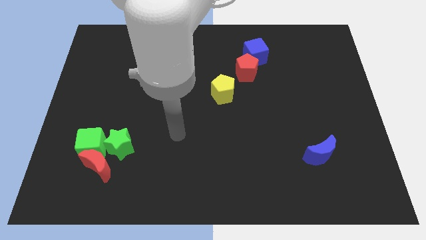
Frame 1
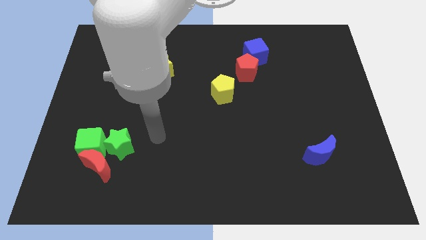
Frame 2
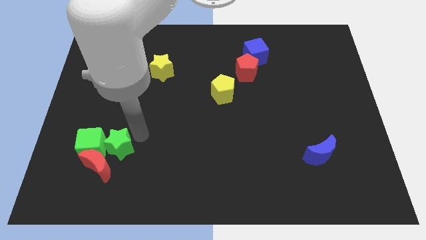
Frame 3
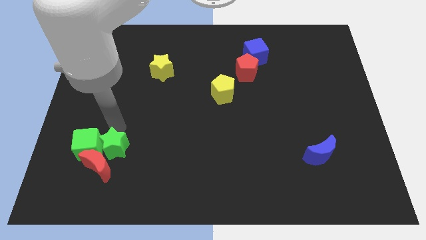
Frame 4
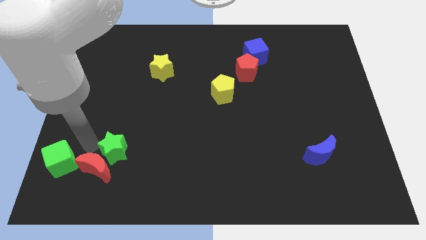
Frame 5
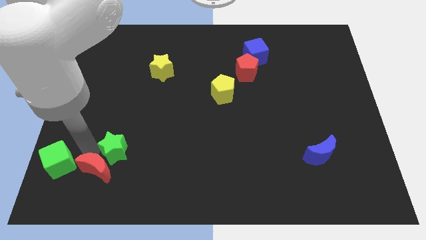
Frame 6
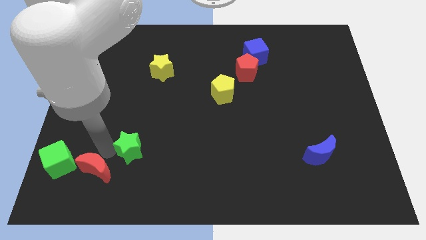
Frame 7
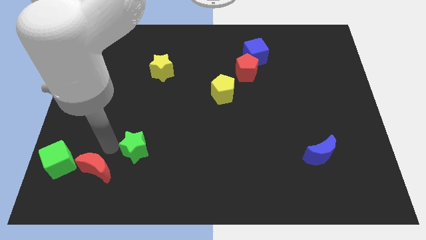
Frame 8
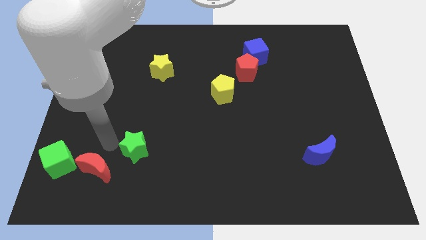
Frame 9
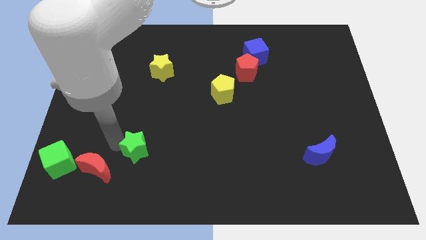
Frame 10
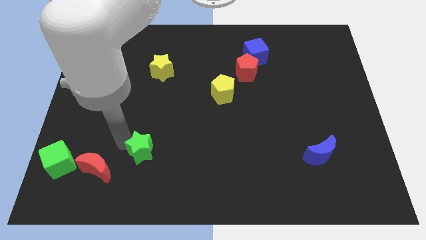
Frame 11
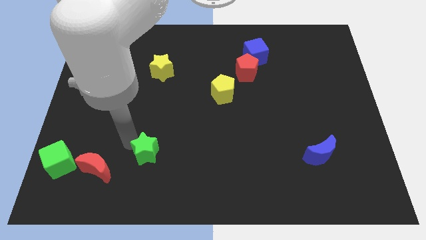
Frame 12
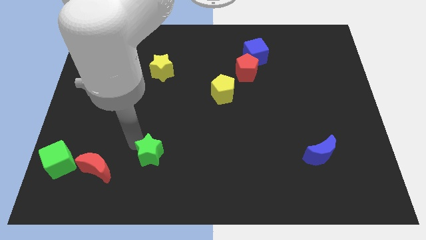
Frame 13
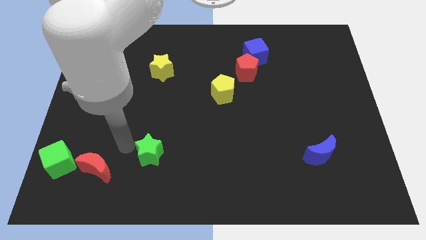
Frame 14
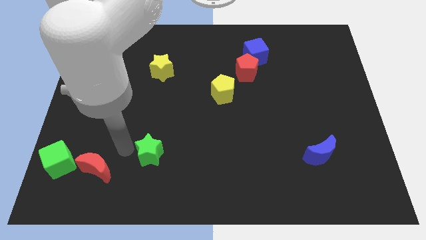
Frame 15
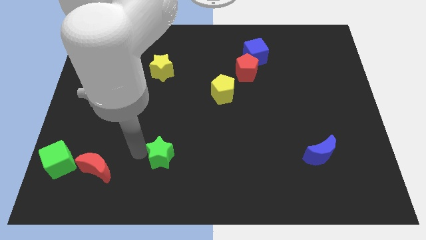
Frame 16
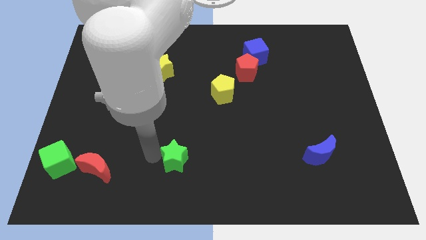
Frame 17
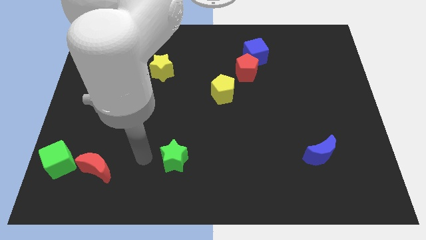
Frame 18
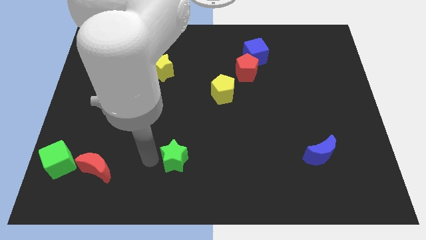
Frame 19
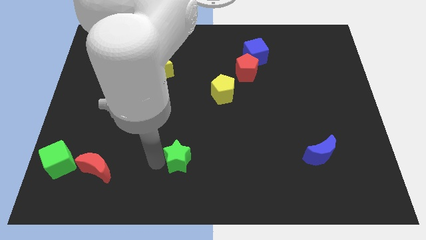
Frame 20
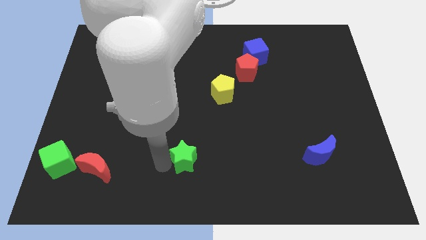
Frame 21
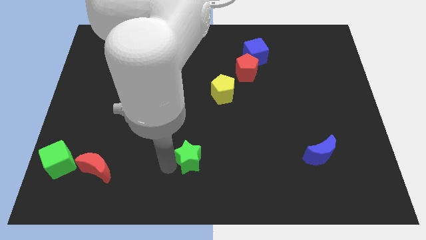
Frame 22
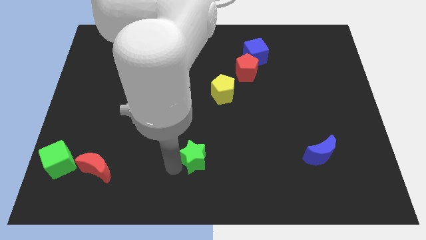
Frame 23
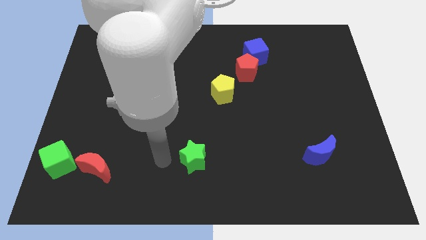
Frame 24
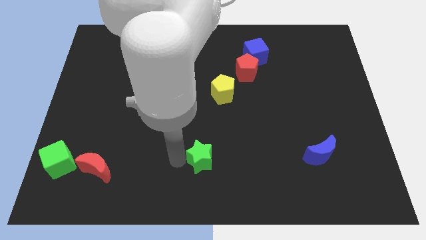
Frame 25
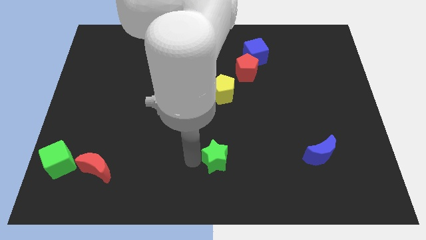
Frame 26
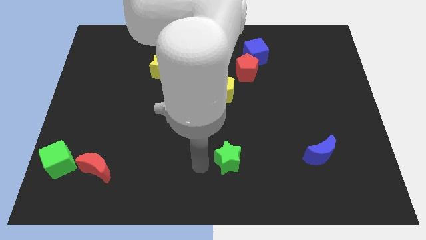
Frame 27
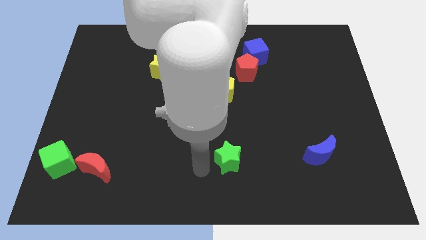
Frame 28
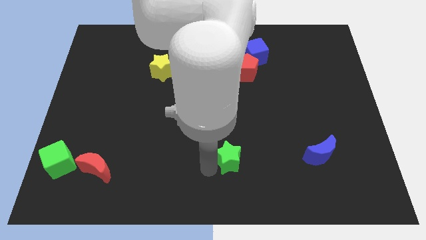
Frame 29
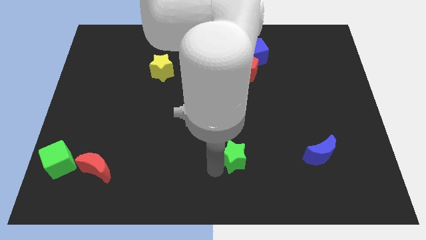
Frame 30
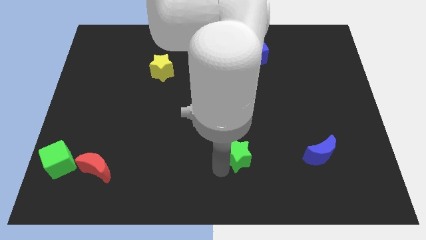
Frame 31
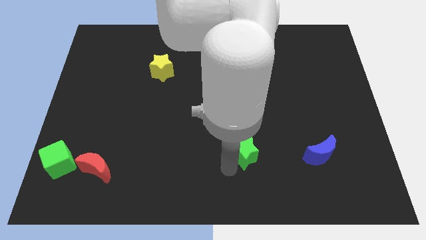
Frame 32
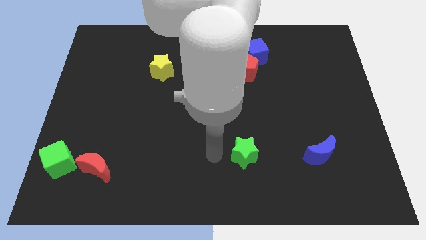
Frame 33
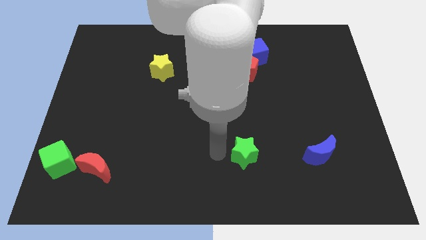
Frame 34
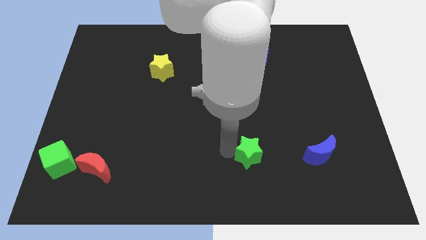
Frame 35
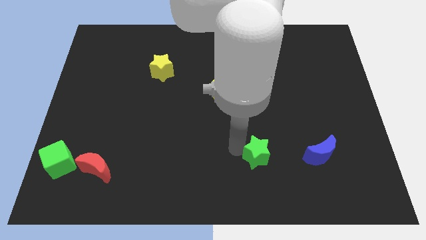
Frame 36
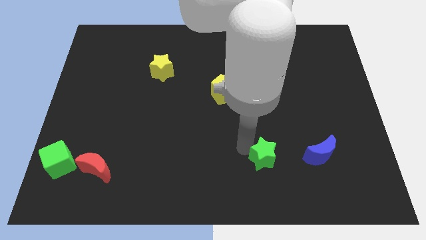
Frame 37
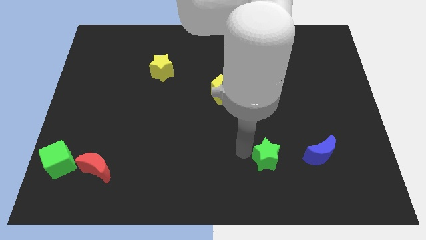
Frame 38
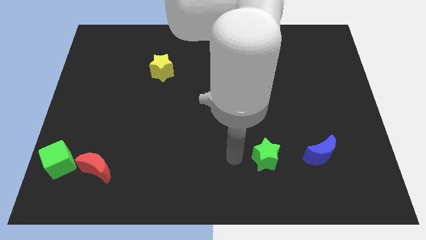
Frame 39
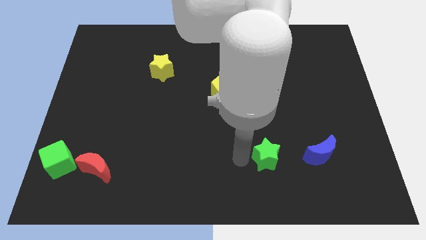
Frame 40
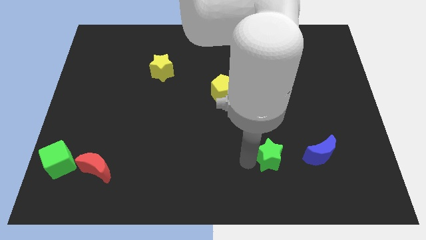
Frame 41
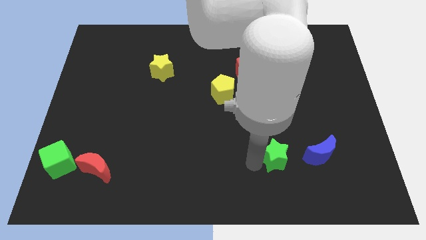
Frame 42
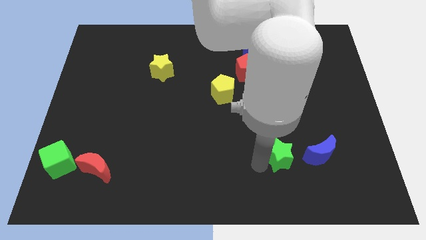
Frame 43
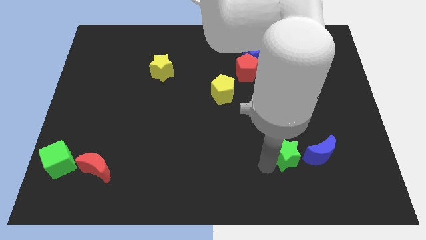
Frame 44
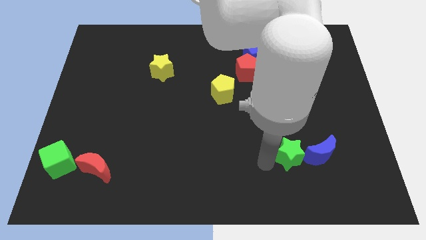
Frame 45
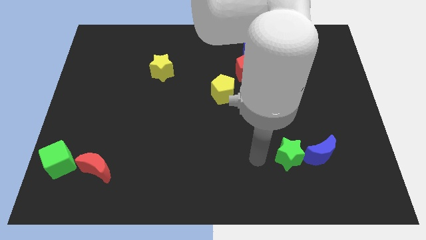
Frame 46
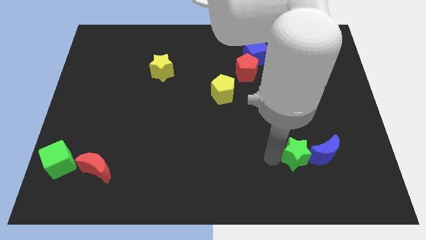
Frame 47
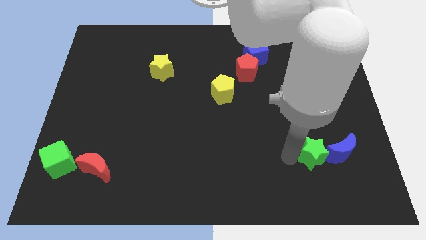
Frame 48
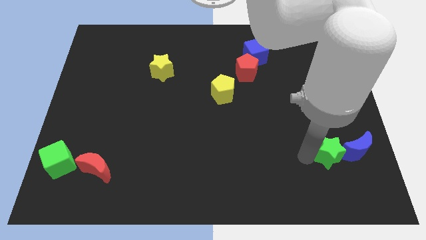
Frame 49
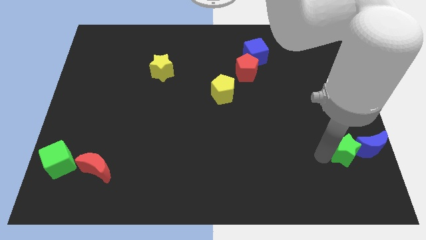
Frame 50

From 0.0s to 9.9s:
slide the green star towards the blue moon
